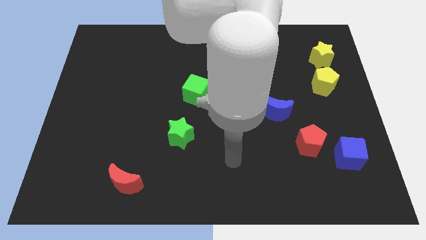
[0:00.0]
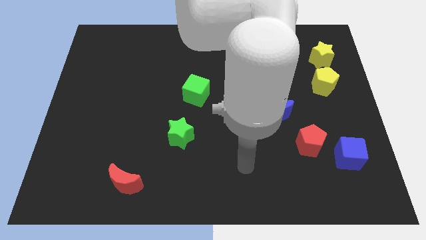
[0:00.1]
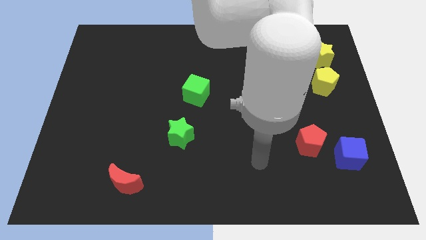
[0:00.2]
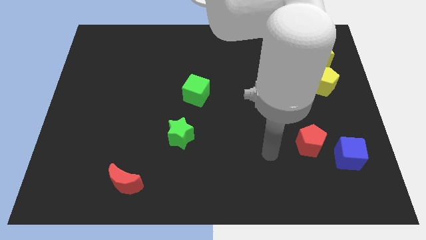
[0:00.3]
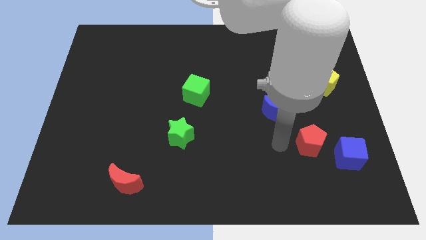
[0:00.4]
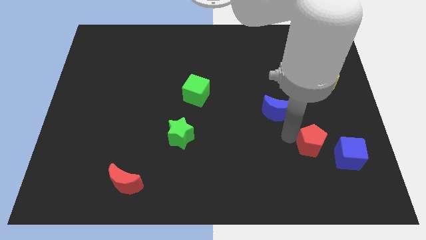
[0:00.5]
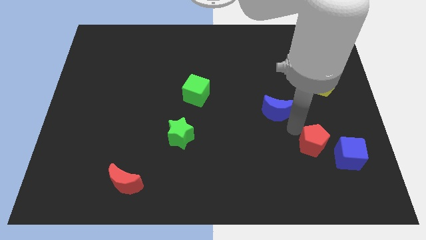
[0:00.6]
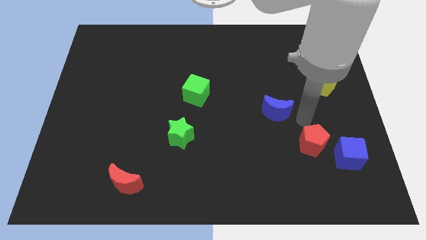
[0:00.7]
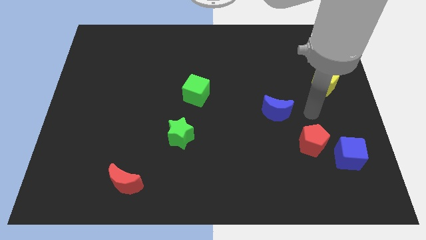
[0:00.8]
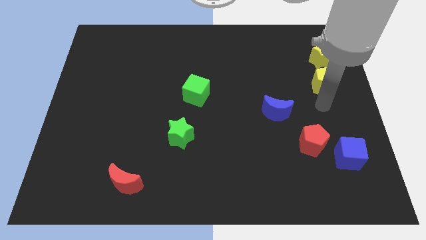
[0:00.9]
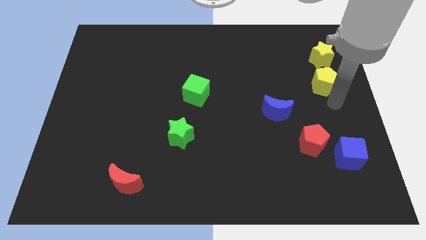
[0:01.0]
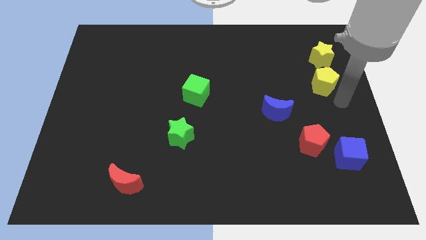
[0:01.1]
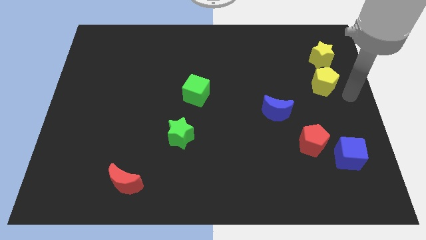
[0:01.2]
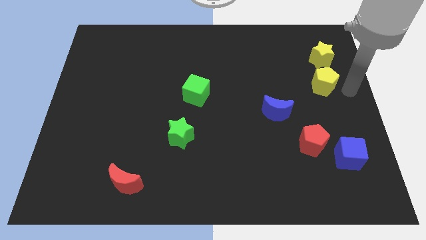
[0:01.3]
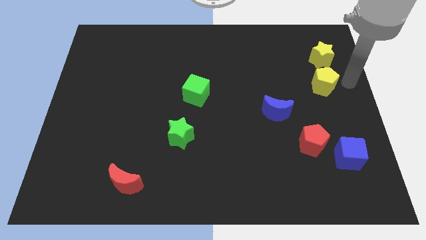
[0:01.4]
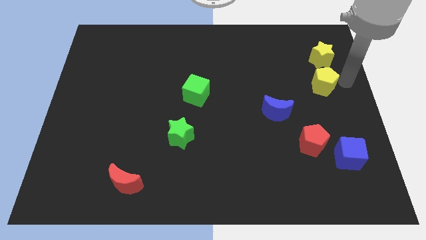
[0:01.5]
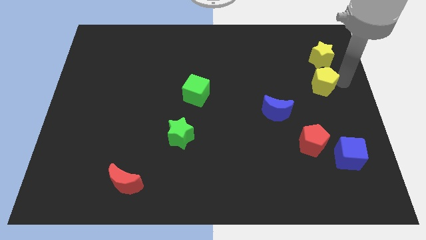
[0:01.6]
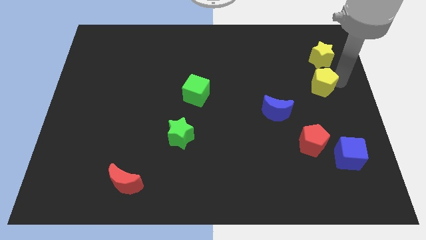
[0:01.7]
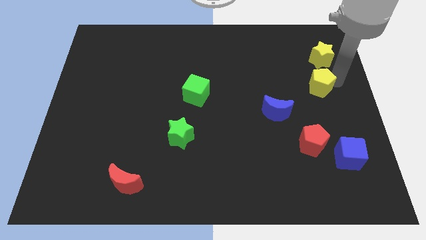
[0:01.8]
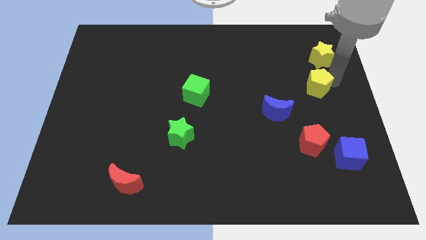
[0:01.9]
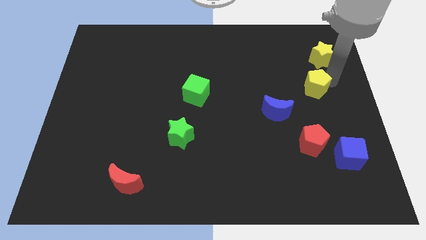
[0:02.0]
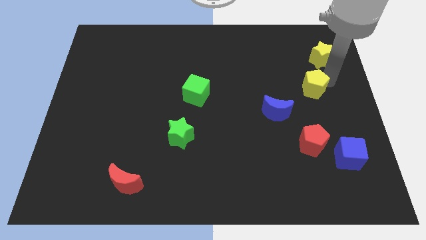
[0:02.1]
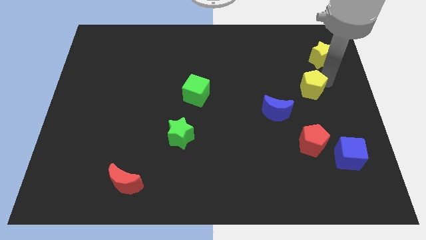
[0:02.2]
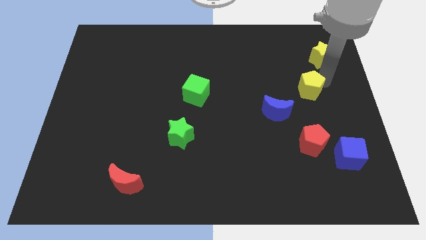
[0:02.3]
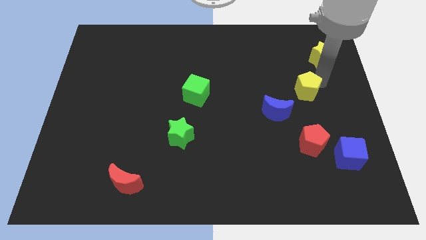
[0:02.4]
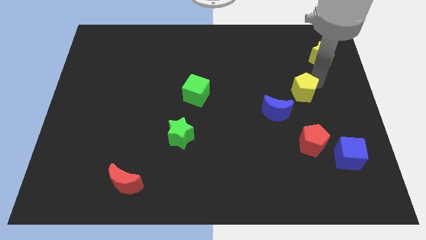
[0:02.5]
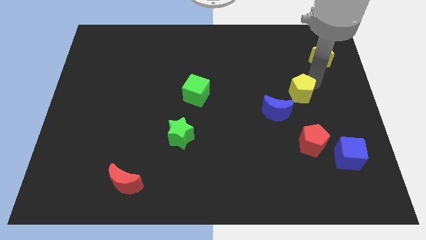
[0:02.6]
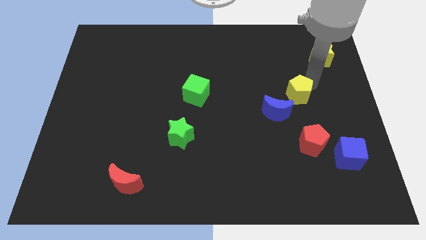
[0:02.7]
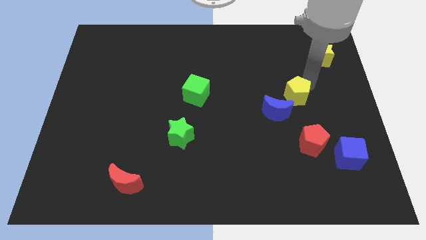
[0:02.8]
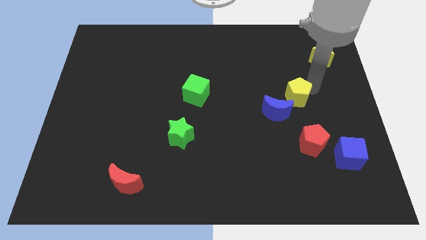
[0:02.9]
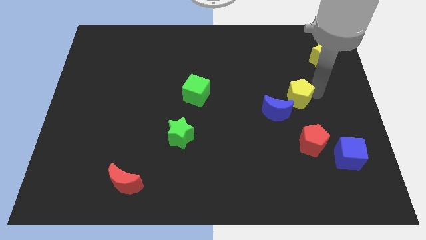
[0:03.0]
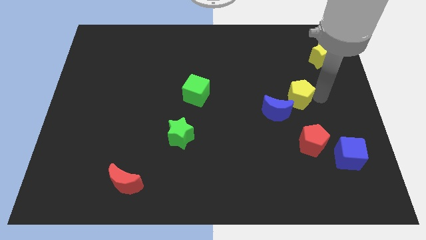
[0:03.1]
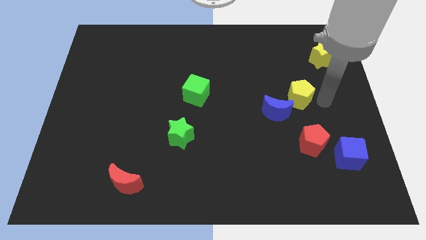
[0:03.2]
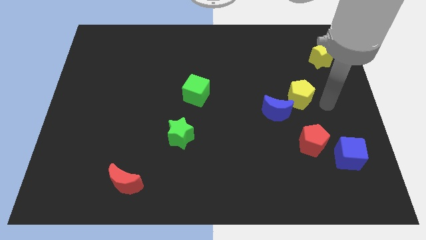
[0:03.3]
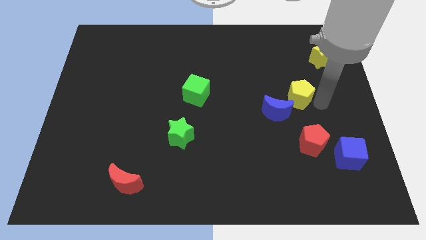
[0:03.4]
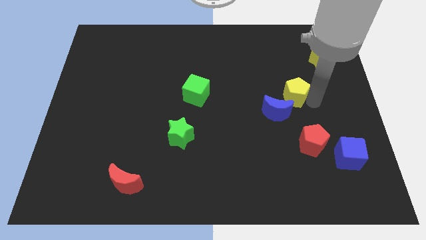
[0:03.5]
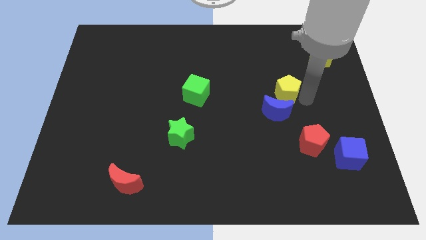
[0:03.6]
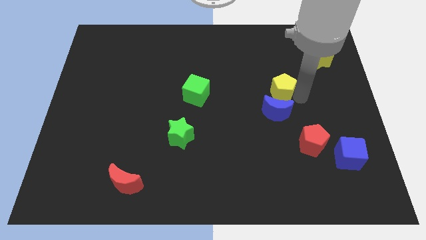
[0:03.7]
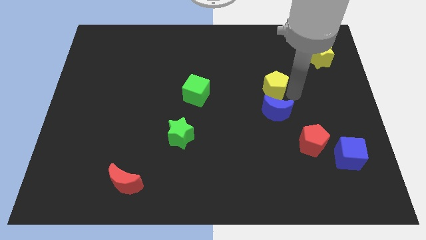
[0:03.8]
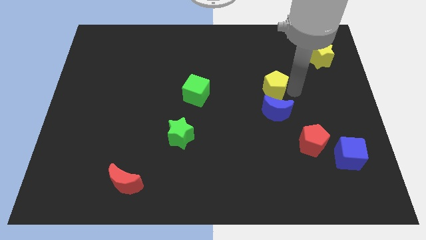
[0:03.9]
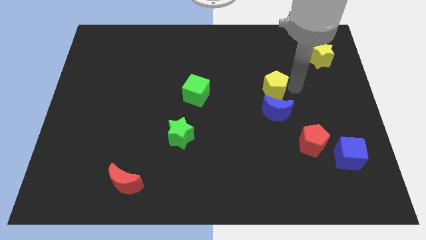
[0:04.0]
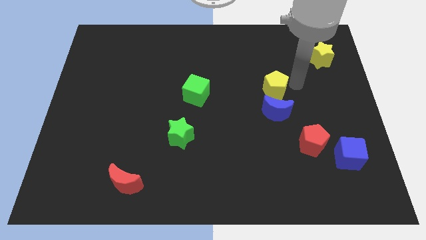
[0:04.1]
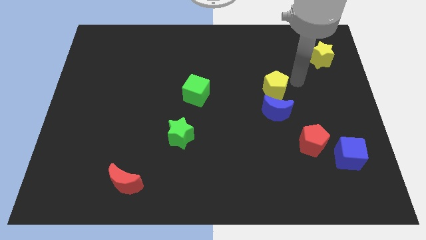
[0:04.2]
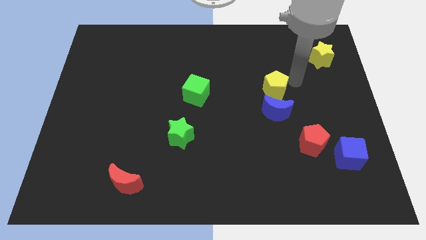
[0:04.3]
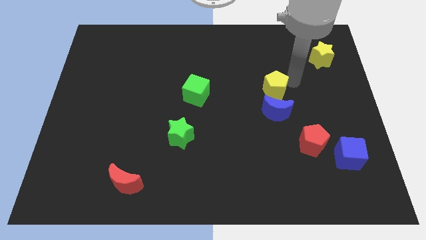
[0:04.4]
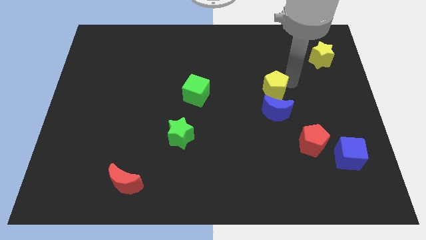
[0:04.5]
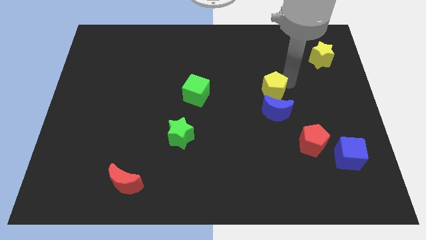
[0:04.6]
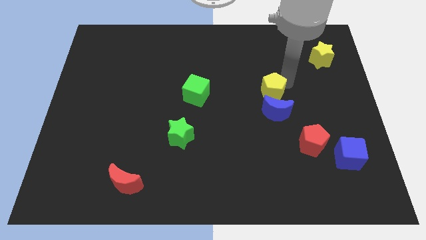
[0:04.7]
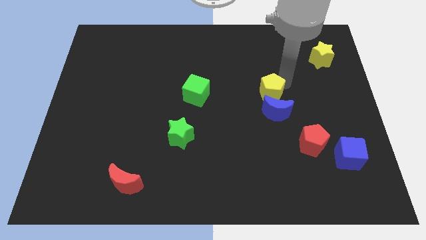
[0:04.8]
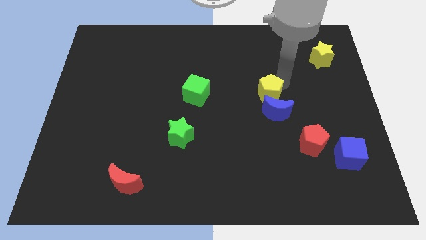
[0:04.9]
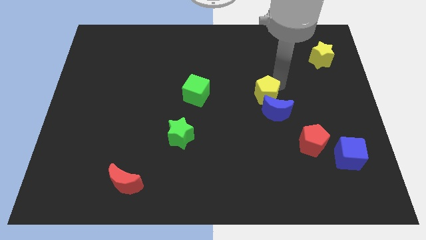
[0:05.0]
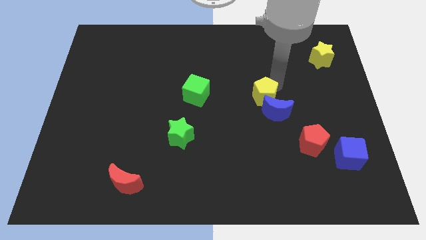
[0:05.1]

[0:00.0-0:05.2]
move the yellow pentagon to the center of the board

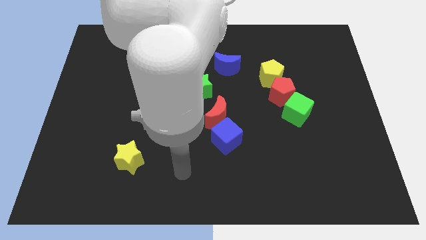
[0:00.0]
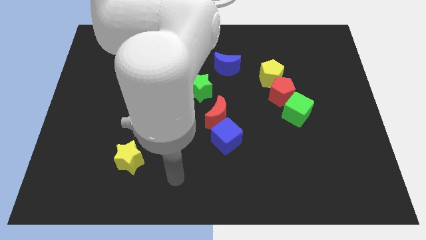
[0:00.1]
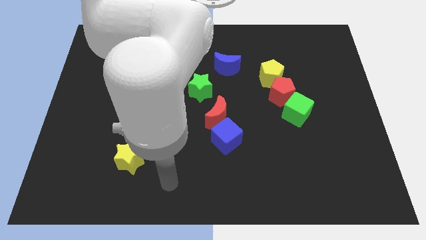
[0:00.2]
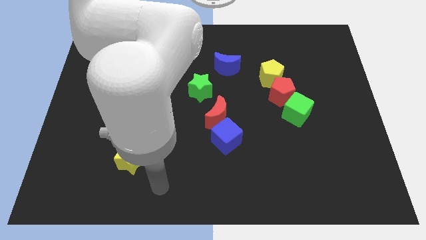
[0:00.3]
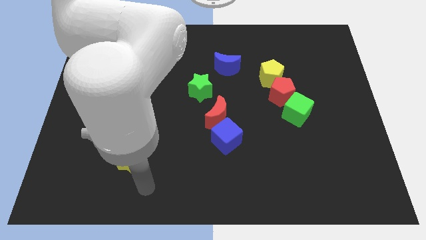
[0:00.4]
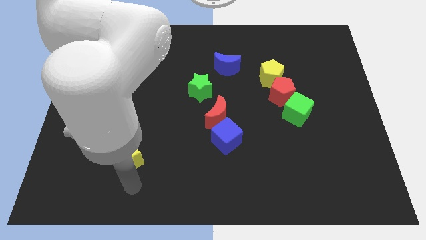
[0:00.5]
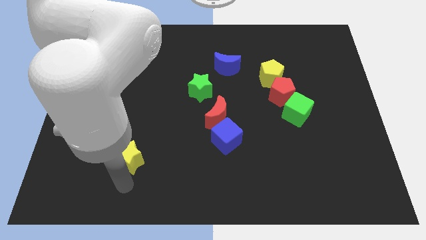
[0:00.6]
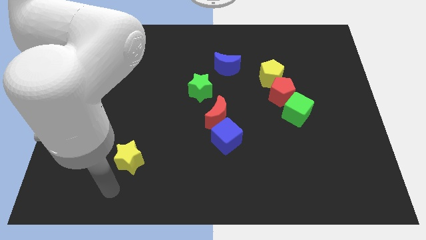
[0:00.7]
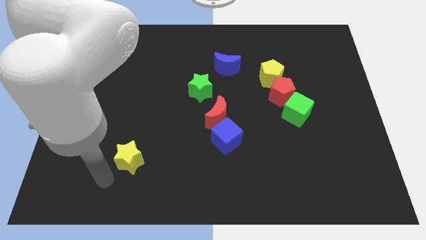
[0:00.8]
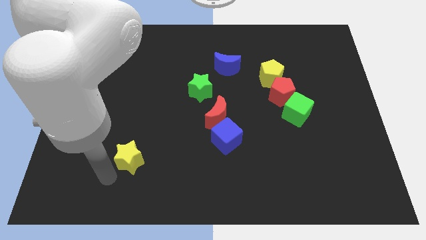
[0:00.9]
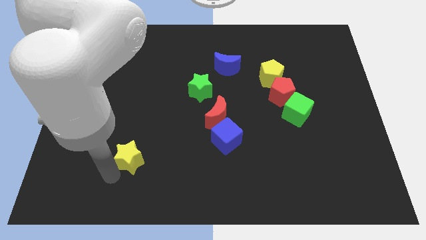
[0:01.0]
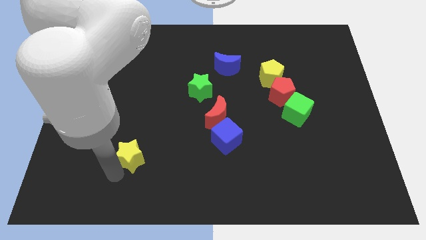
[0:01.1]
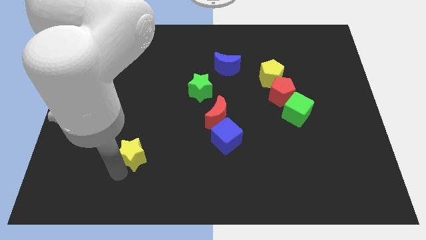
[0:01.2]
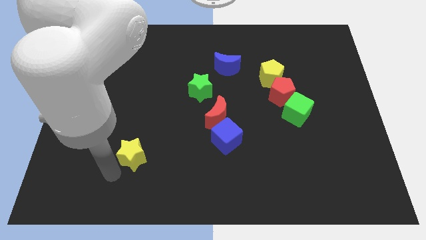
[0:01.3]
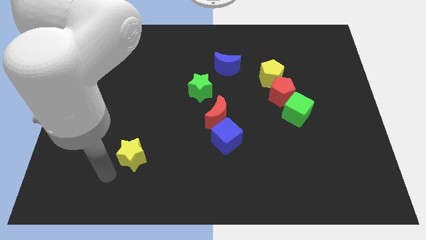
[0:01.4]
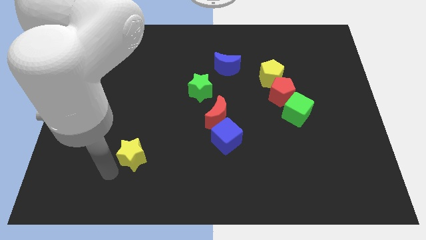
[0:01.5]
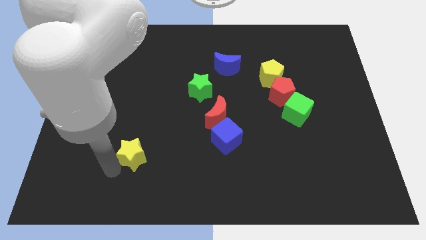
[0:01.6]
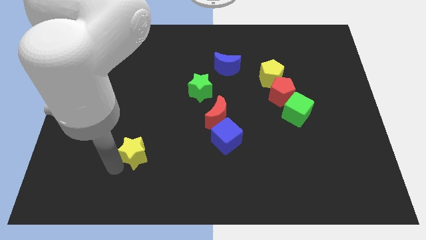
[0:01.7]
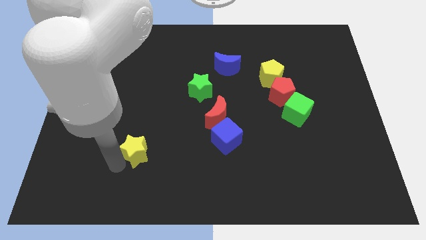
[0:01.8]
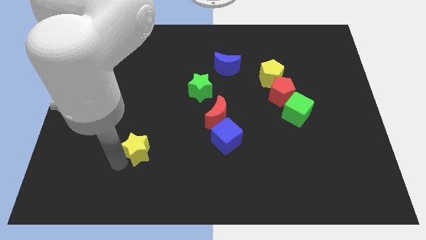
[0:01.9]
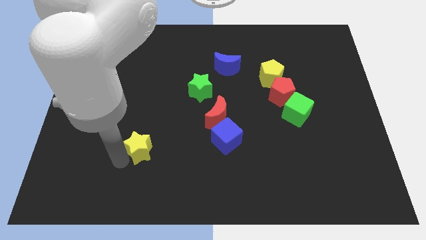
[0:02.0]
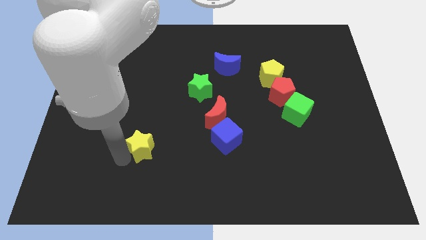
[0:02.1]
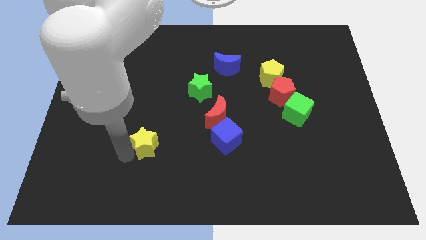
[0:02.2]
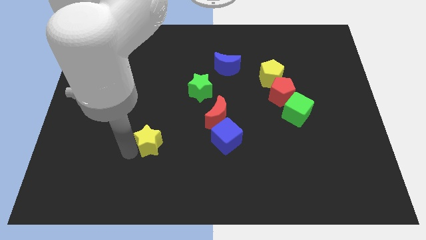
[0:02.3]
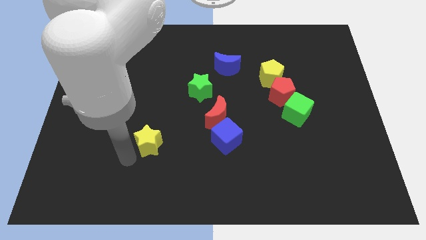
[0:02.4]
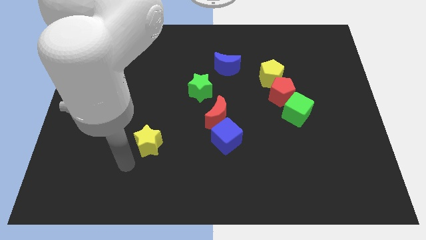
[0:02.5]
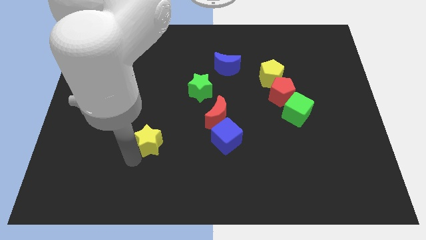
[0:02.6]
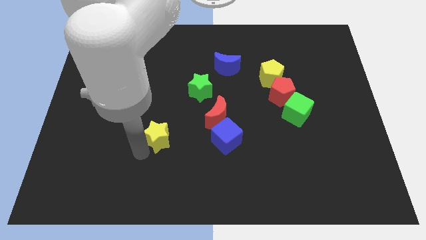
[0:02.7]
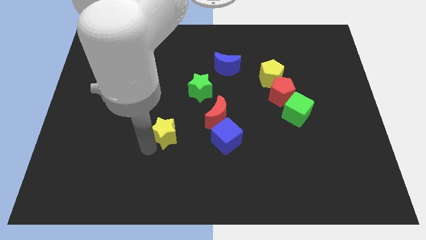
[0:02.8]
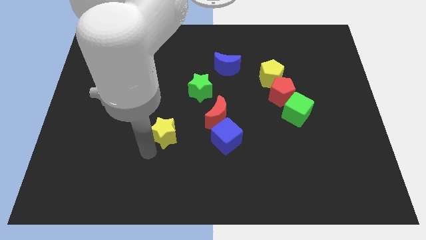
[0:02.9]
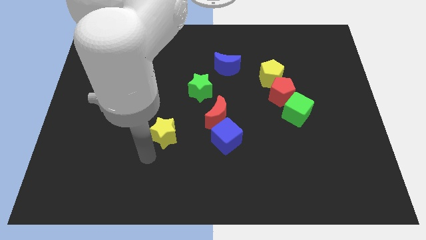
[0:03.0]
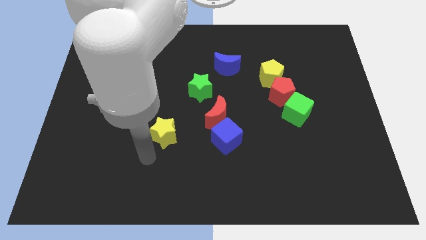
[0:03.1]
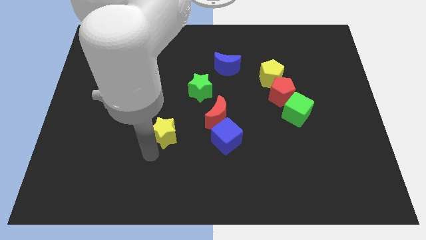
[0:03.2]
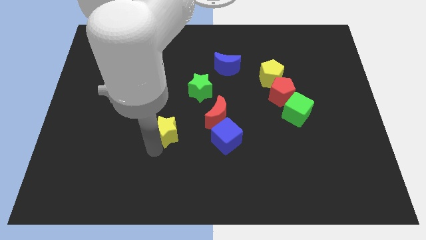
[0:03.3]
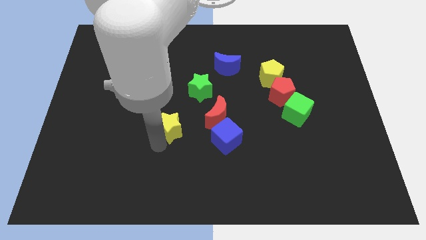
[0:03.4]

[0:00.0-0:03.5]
push the yellow star to the center of the board
